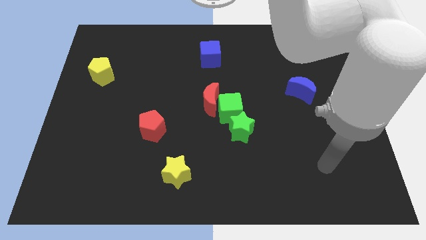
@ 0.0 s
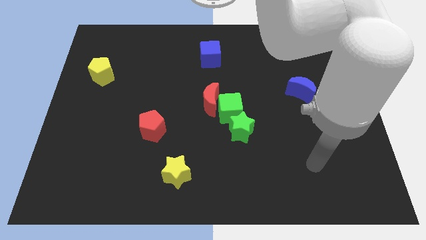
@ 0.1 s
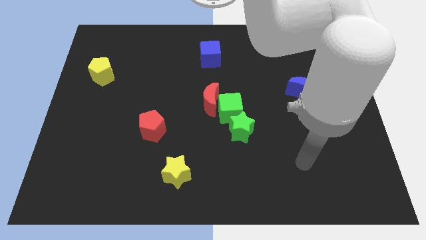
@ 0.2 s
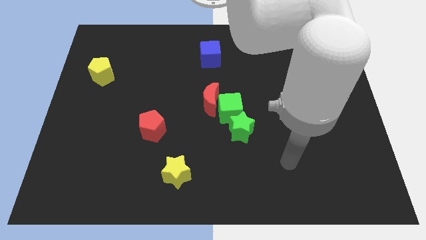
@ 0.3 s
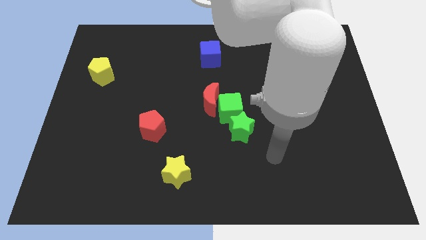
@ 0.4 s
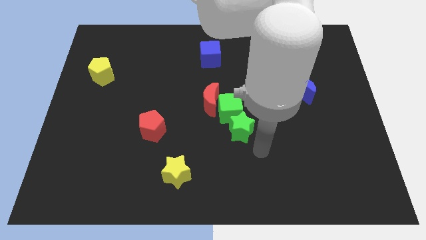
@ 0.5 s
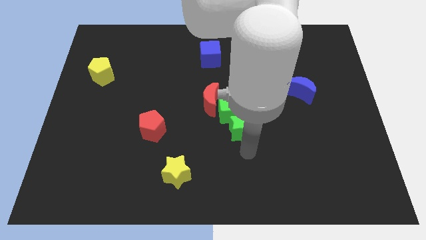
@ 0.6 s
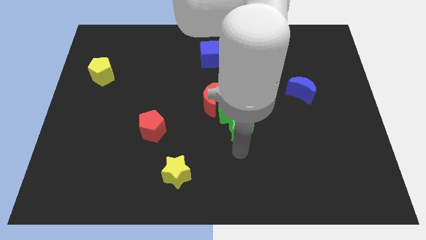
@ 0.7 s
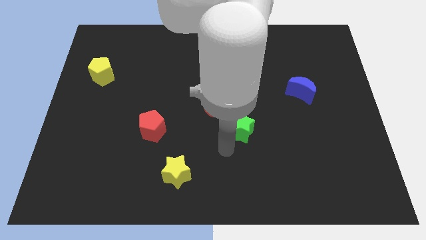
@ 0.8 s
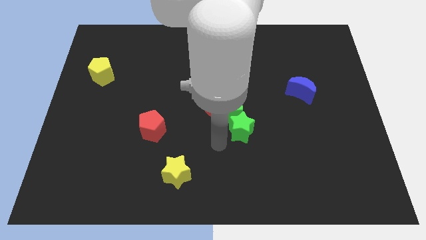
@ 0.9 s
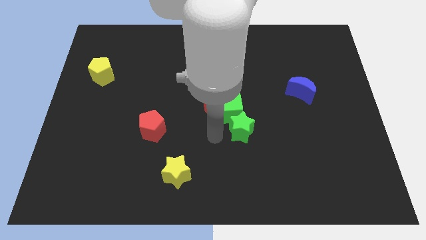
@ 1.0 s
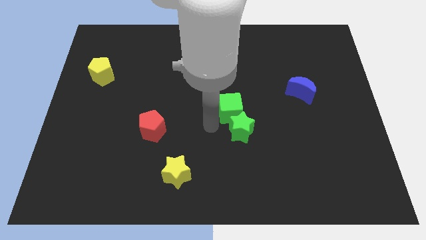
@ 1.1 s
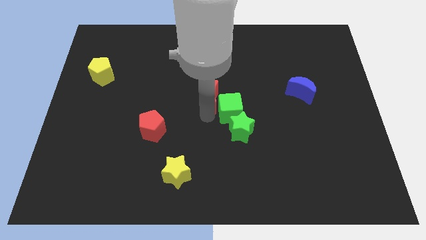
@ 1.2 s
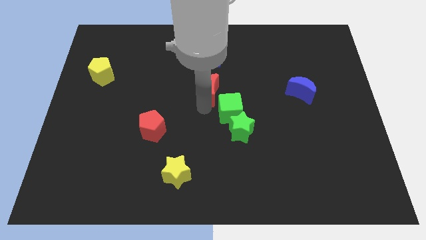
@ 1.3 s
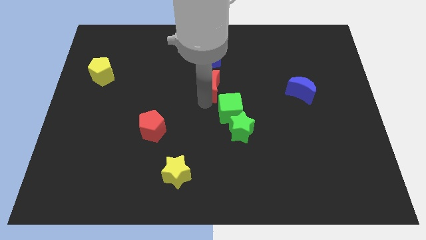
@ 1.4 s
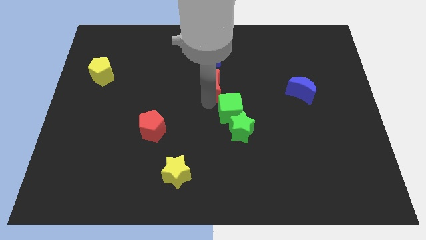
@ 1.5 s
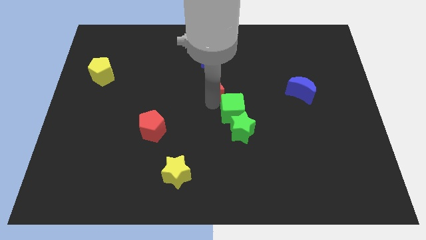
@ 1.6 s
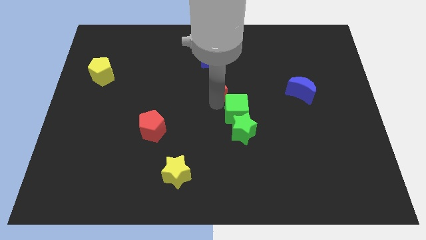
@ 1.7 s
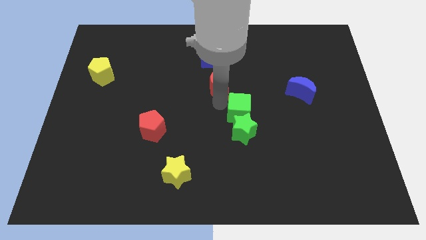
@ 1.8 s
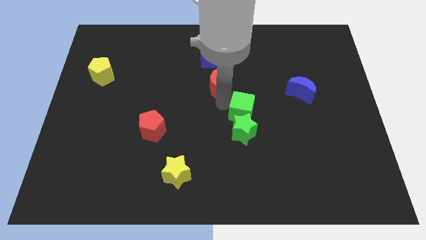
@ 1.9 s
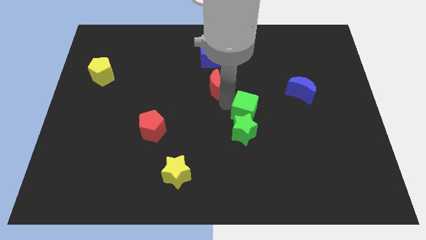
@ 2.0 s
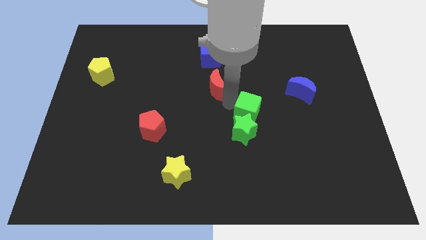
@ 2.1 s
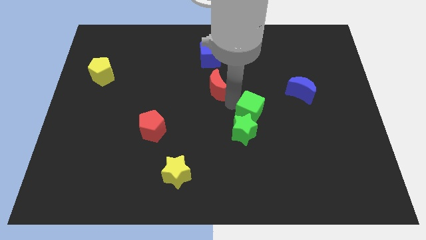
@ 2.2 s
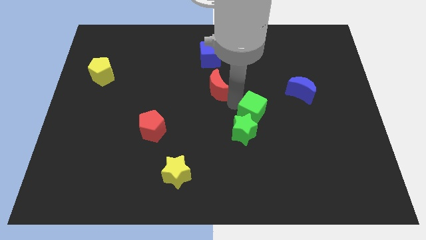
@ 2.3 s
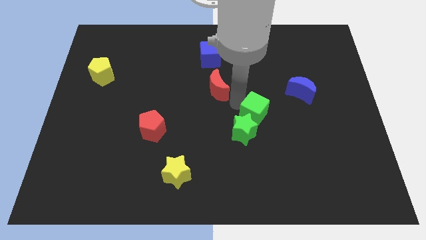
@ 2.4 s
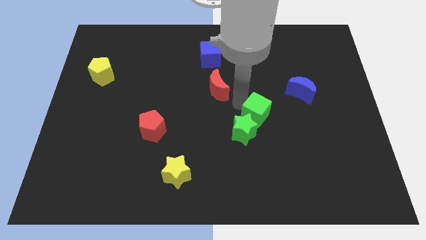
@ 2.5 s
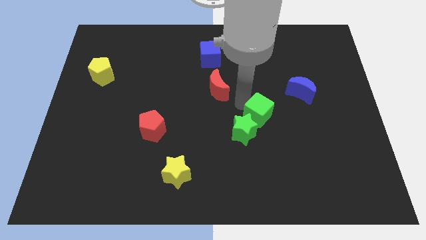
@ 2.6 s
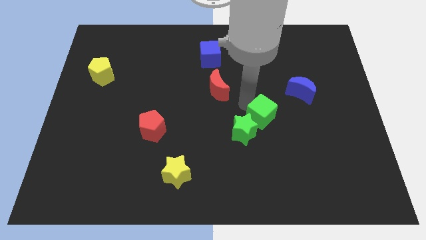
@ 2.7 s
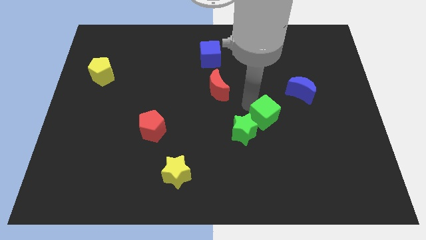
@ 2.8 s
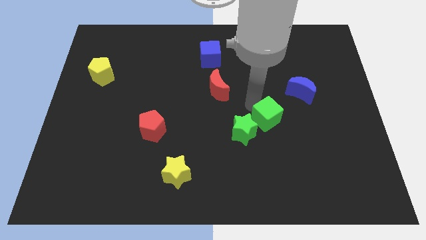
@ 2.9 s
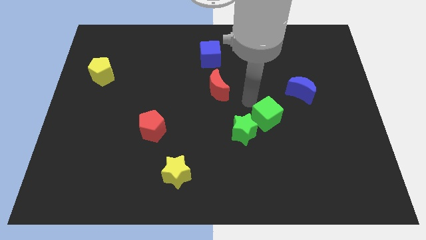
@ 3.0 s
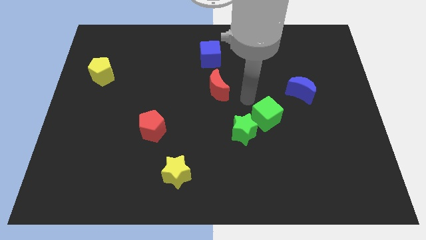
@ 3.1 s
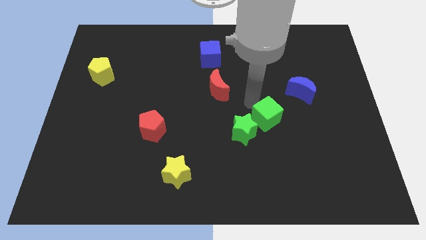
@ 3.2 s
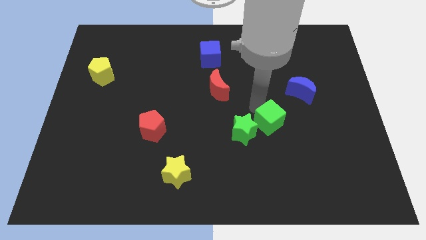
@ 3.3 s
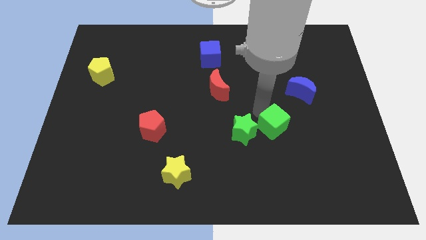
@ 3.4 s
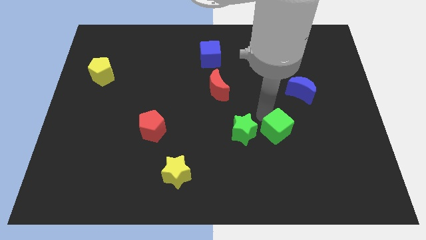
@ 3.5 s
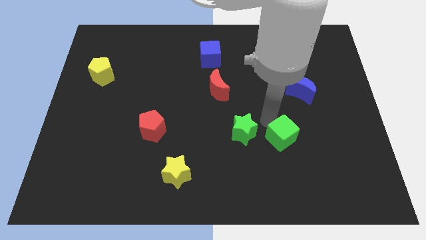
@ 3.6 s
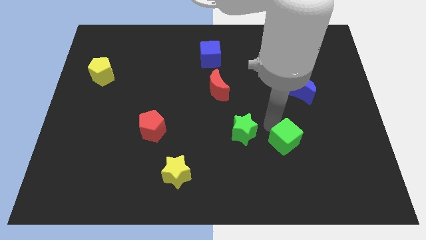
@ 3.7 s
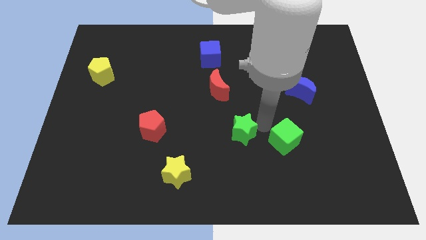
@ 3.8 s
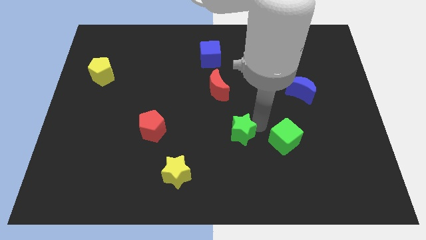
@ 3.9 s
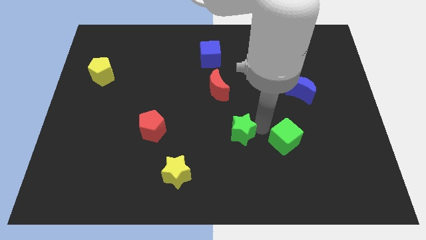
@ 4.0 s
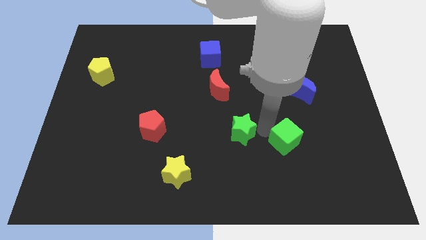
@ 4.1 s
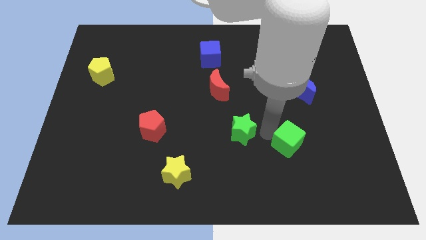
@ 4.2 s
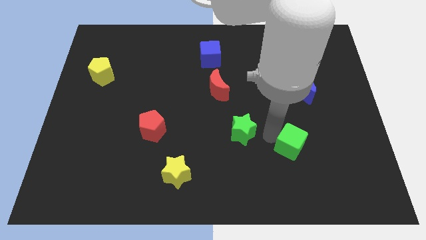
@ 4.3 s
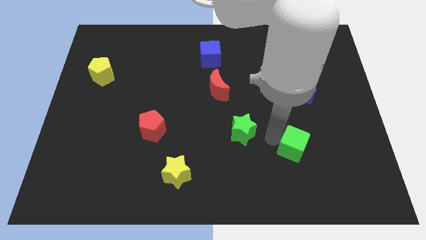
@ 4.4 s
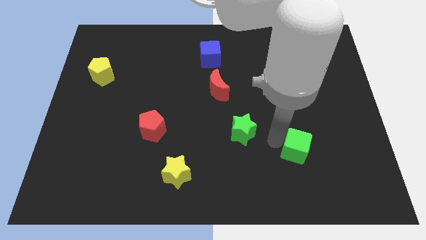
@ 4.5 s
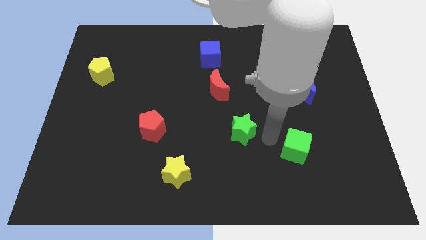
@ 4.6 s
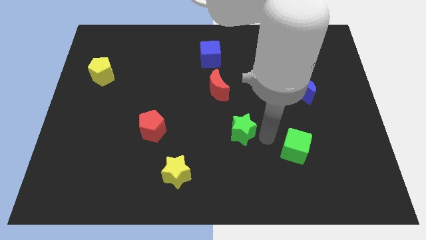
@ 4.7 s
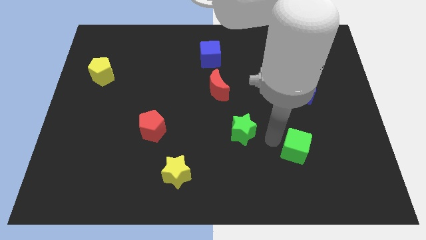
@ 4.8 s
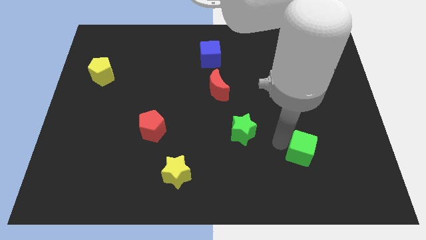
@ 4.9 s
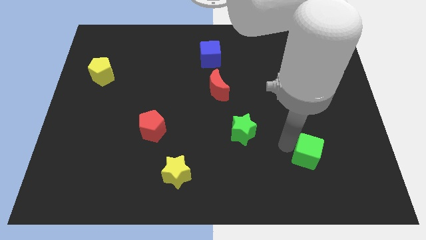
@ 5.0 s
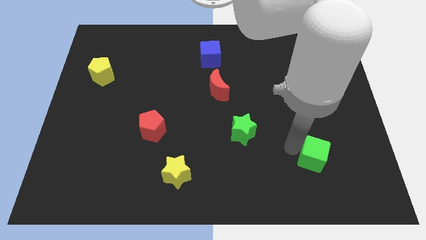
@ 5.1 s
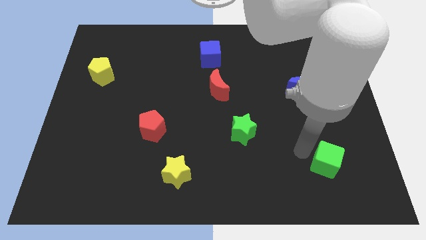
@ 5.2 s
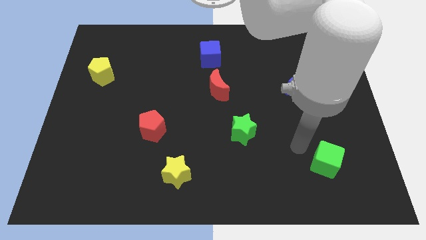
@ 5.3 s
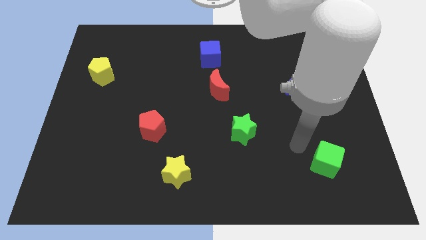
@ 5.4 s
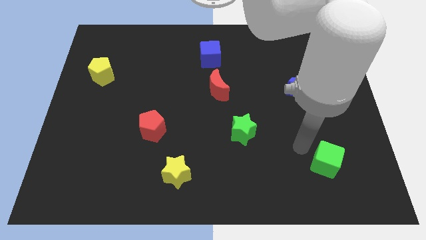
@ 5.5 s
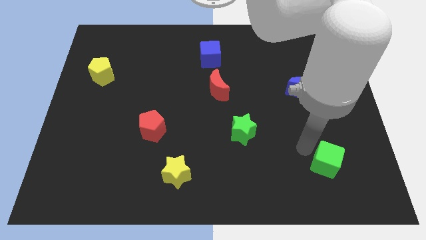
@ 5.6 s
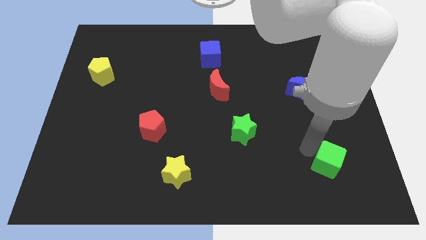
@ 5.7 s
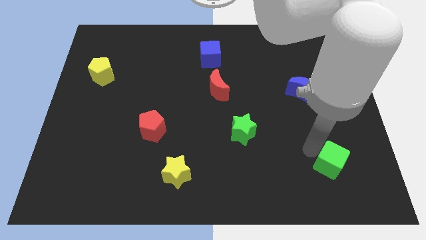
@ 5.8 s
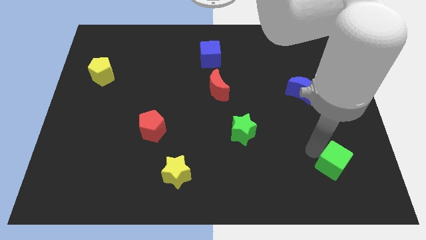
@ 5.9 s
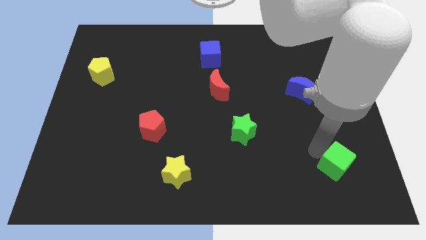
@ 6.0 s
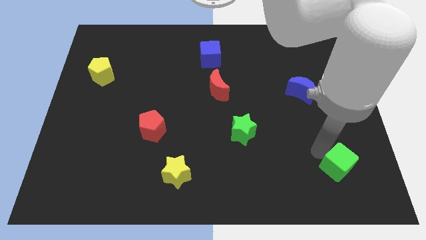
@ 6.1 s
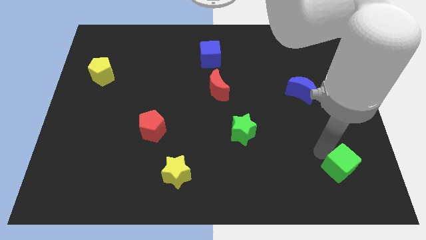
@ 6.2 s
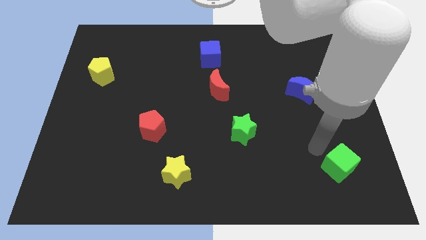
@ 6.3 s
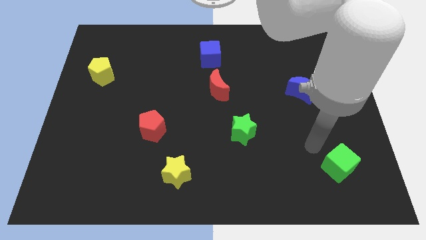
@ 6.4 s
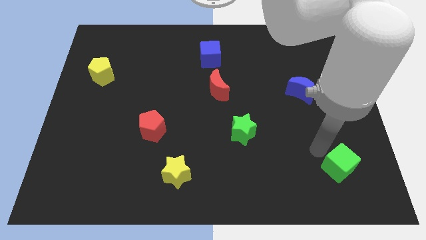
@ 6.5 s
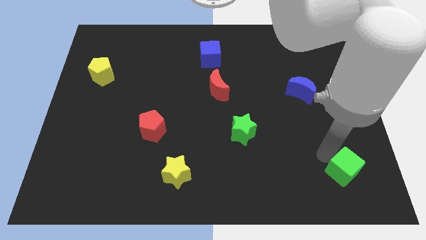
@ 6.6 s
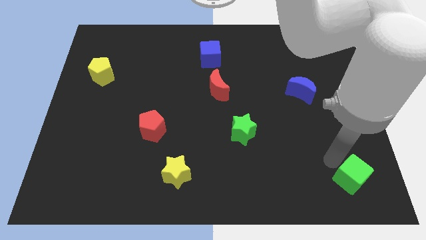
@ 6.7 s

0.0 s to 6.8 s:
move the green cube to the lower right corner
